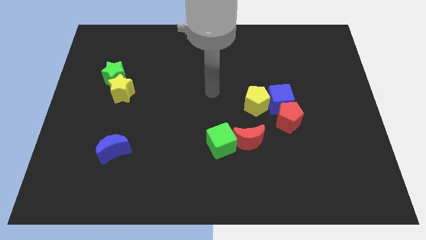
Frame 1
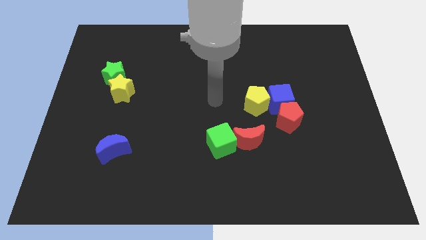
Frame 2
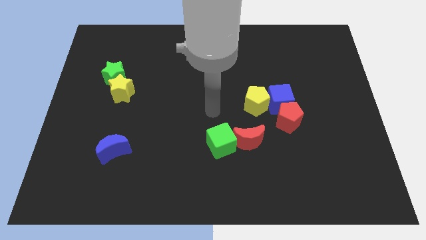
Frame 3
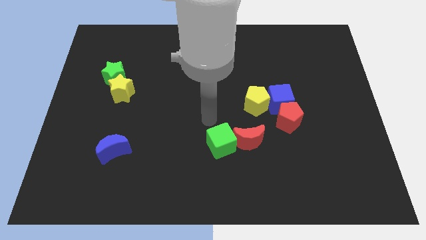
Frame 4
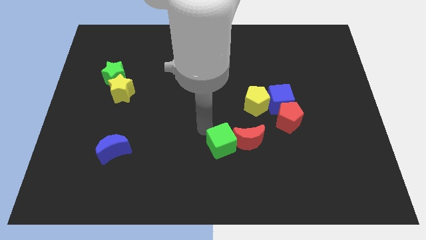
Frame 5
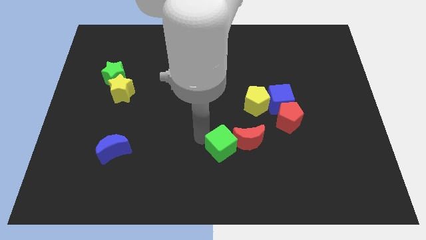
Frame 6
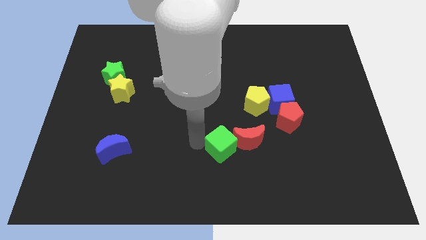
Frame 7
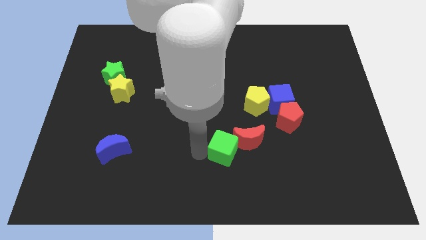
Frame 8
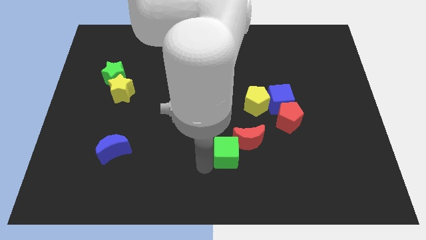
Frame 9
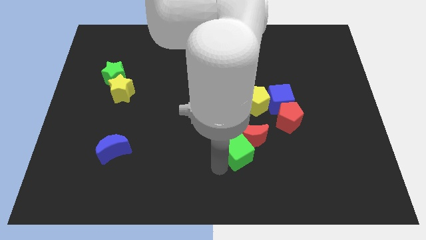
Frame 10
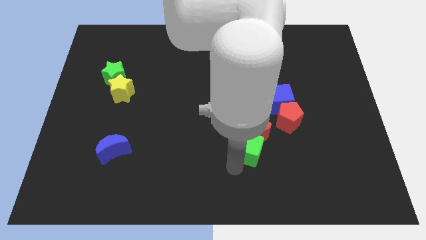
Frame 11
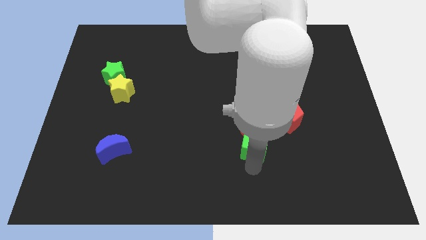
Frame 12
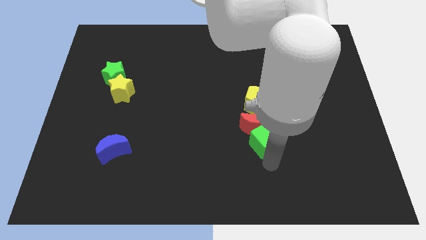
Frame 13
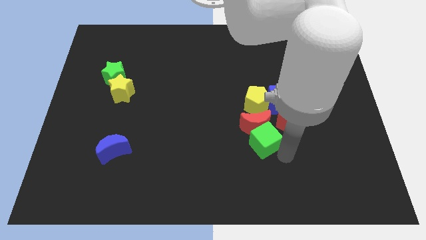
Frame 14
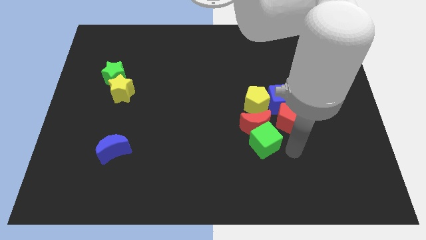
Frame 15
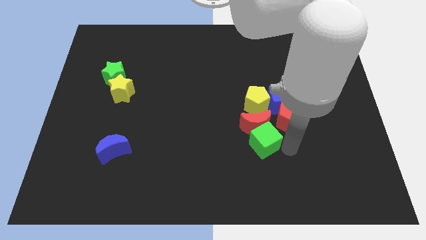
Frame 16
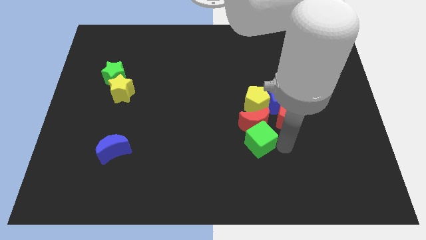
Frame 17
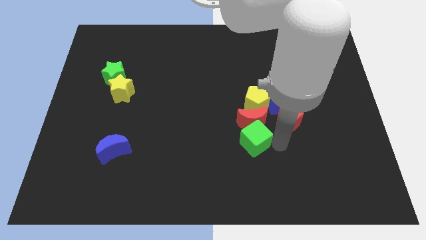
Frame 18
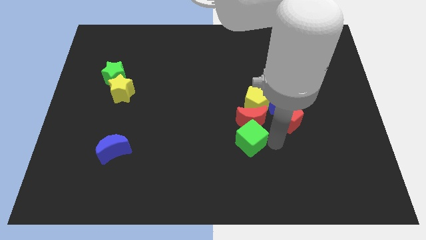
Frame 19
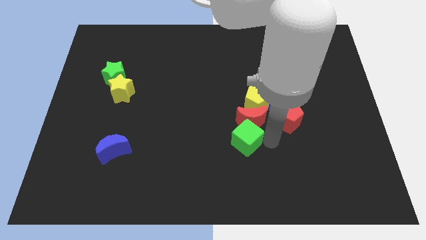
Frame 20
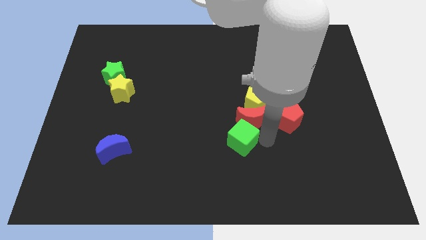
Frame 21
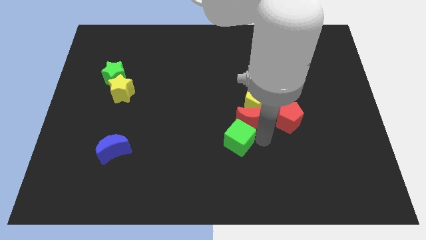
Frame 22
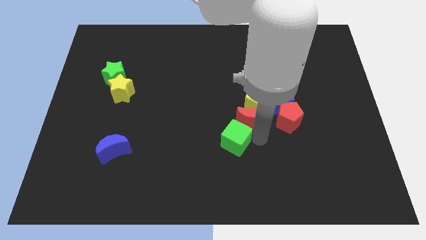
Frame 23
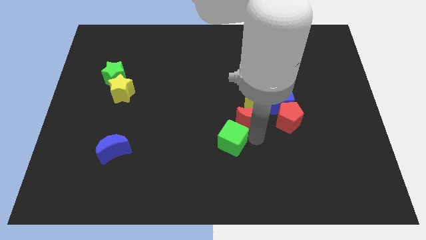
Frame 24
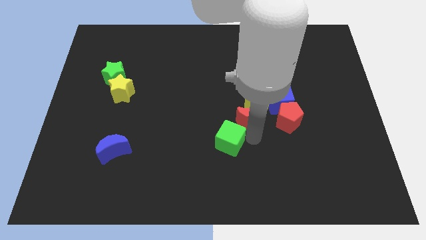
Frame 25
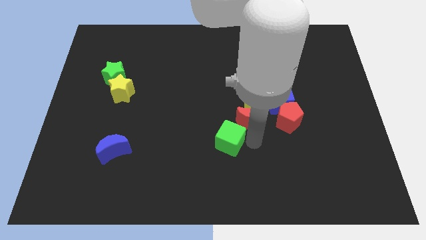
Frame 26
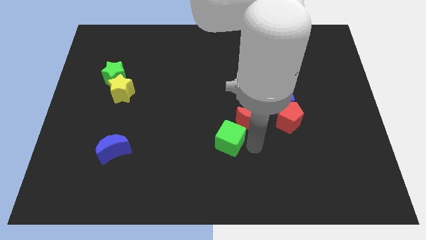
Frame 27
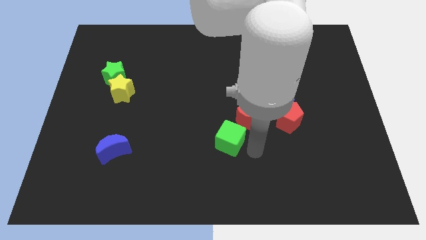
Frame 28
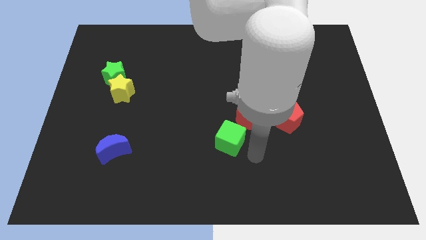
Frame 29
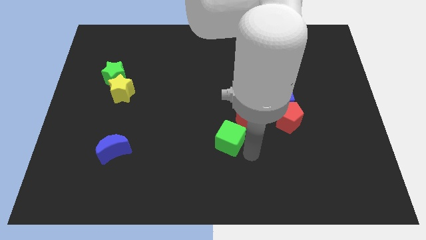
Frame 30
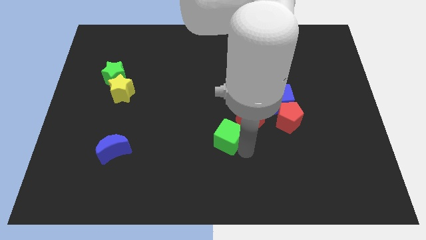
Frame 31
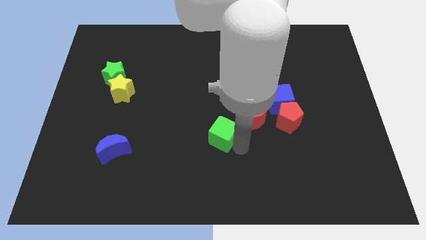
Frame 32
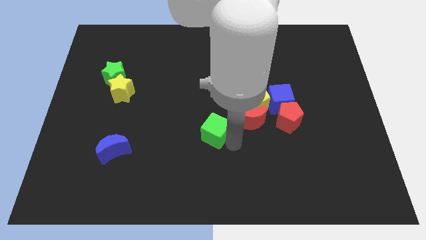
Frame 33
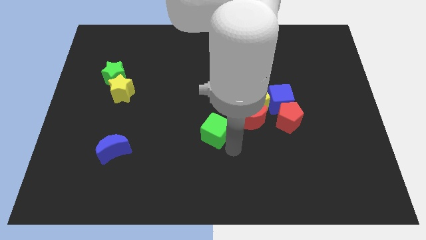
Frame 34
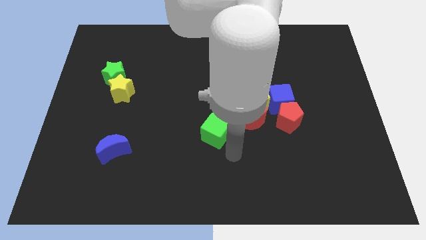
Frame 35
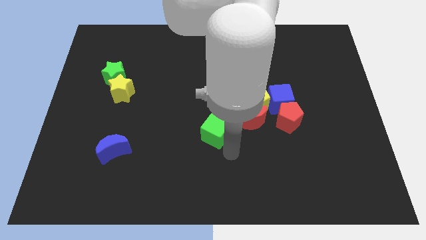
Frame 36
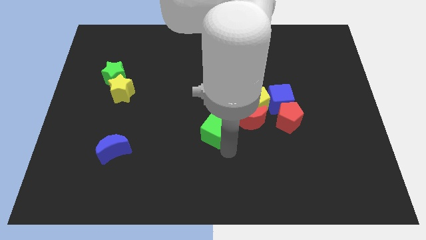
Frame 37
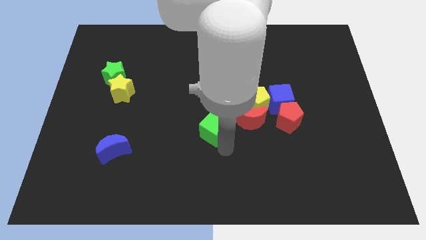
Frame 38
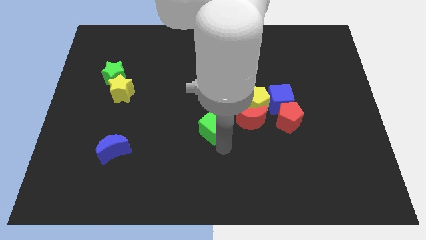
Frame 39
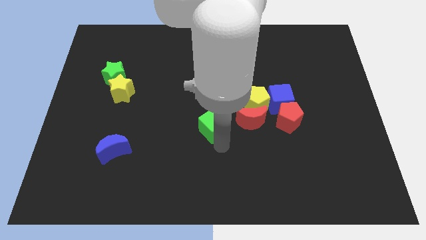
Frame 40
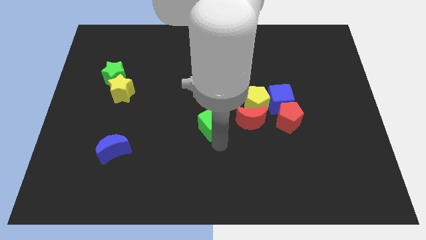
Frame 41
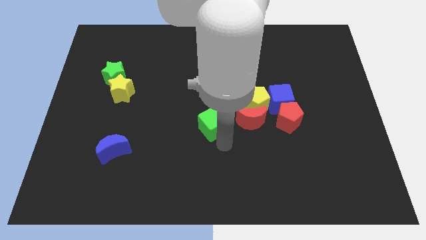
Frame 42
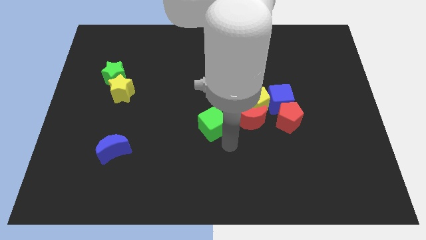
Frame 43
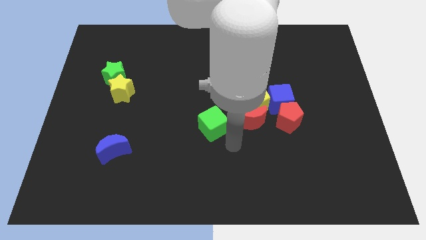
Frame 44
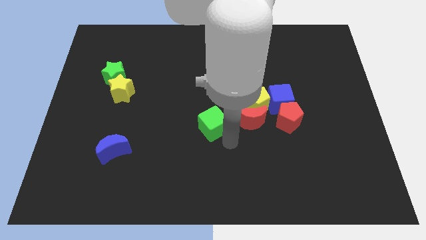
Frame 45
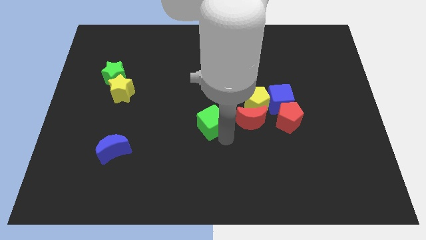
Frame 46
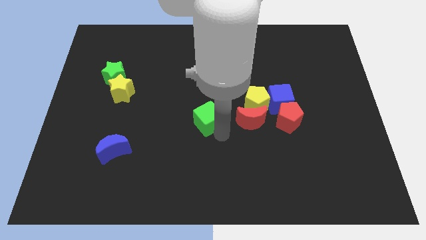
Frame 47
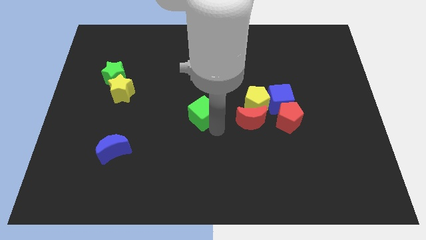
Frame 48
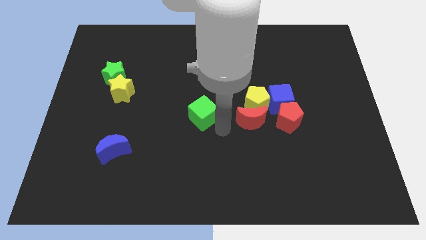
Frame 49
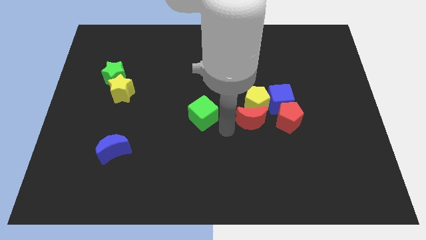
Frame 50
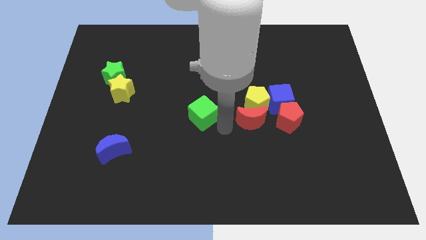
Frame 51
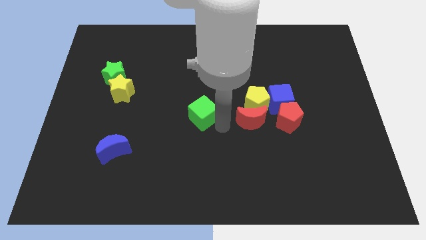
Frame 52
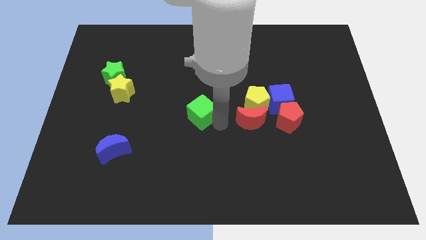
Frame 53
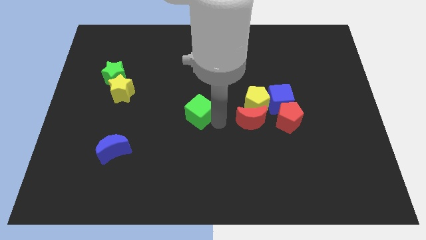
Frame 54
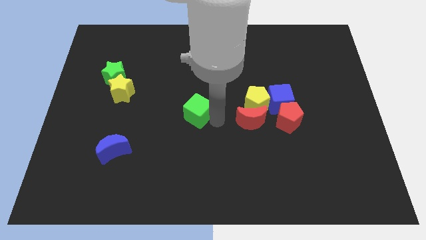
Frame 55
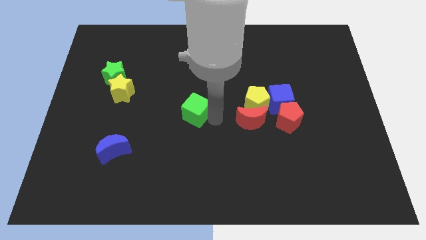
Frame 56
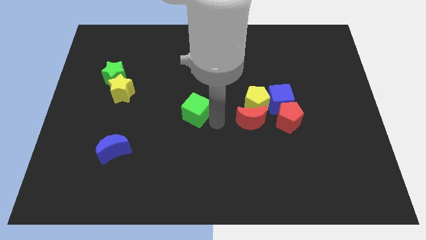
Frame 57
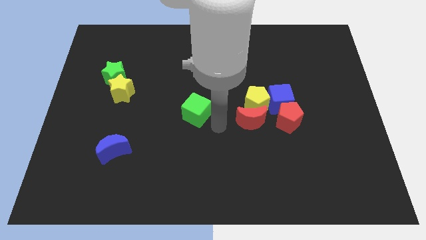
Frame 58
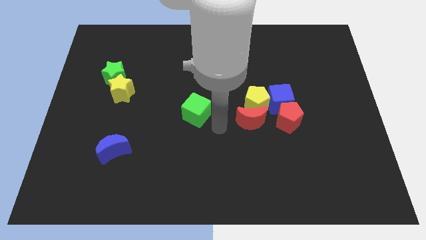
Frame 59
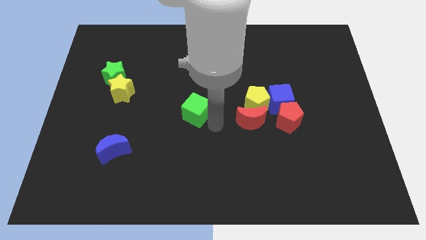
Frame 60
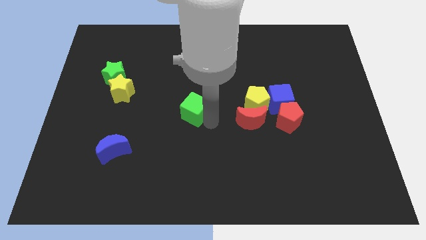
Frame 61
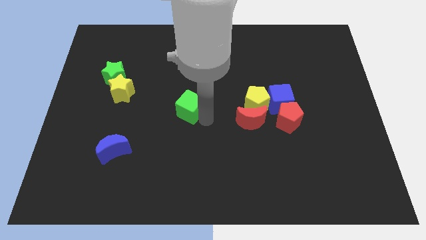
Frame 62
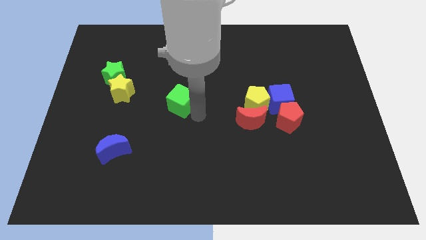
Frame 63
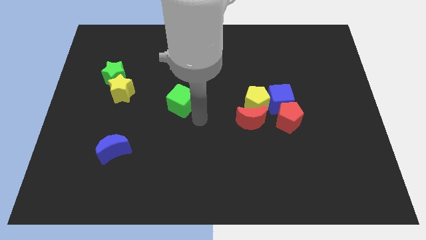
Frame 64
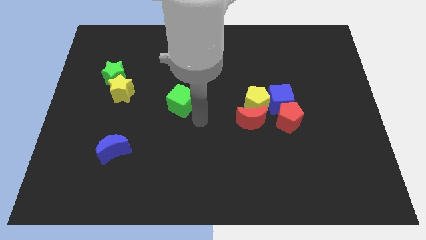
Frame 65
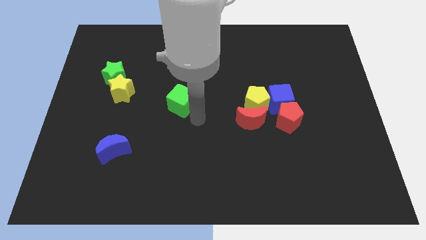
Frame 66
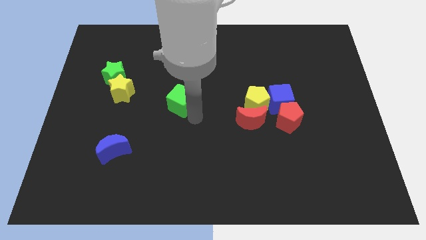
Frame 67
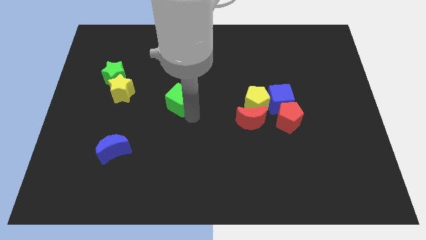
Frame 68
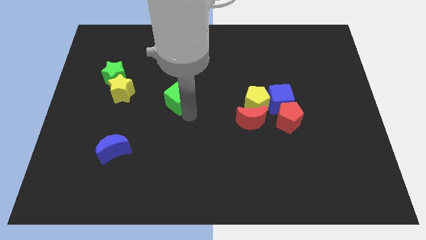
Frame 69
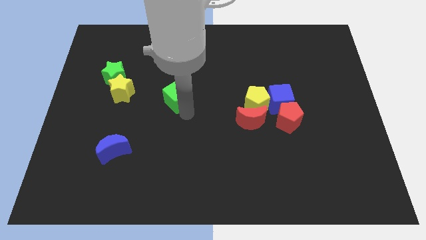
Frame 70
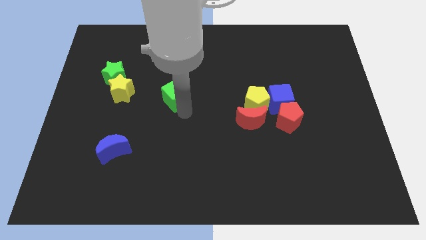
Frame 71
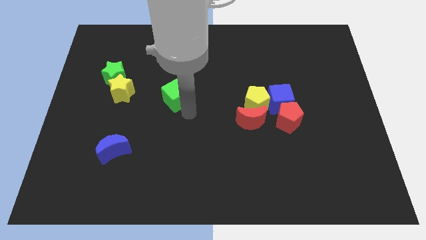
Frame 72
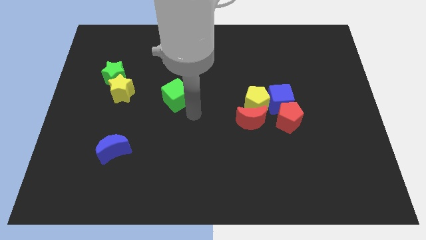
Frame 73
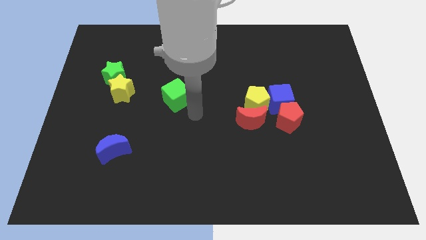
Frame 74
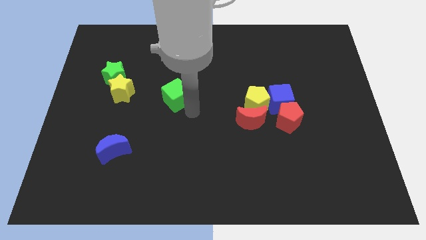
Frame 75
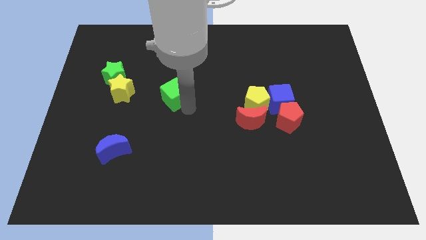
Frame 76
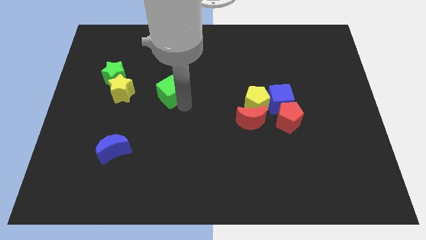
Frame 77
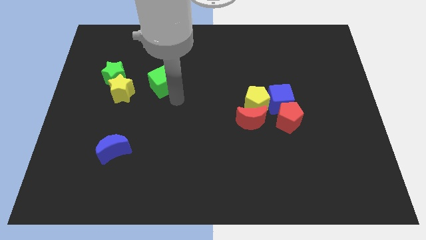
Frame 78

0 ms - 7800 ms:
push the green cube up and left

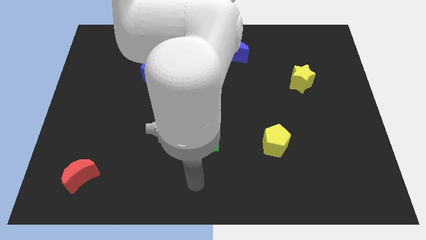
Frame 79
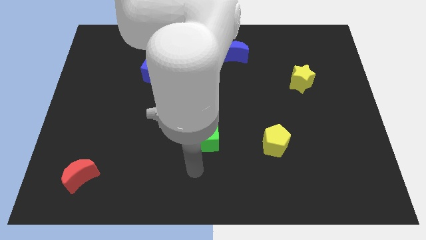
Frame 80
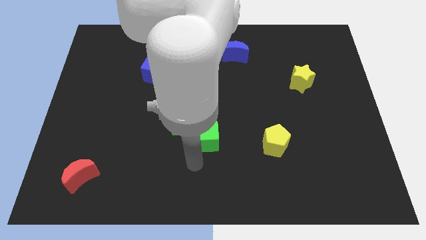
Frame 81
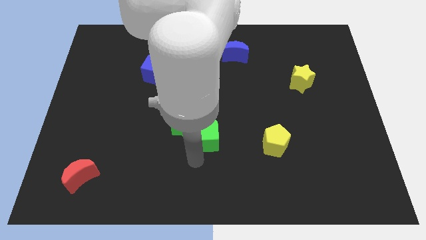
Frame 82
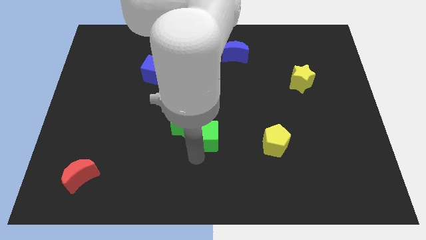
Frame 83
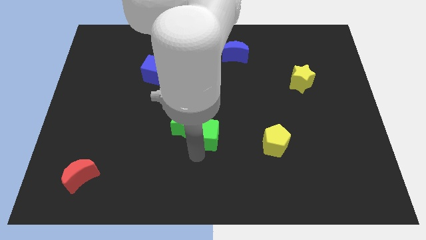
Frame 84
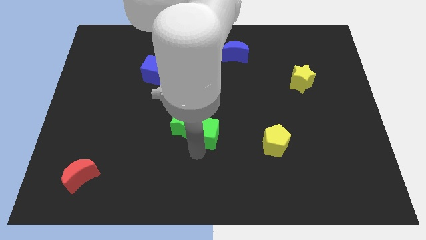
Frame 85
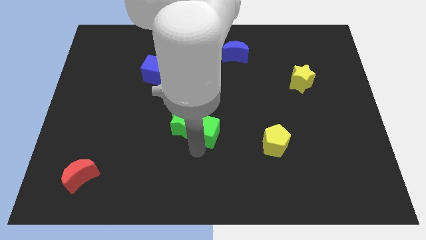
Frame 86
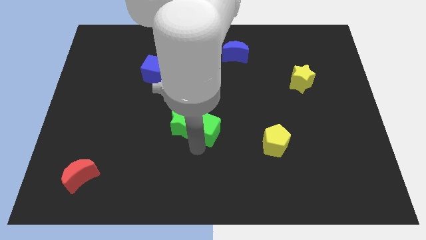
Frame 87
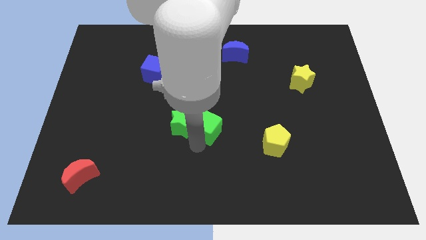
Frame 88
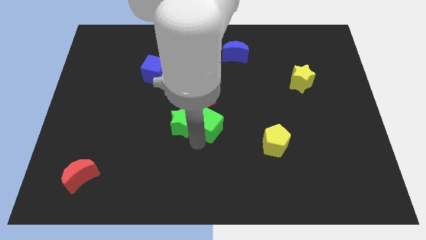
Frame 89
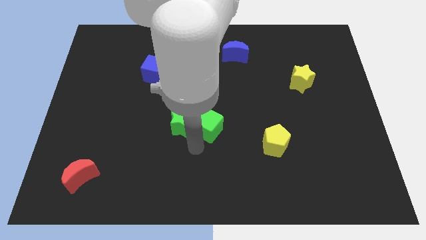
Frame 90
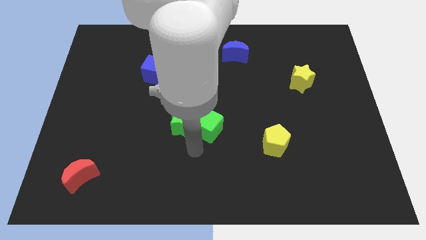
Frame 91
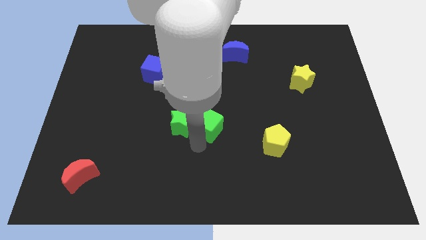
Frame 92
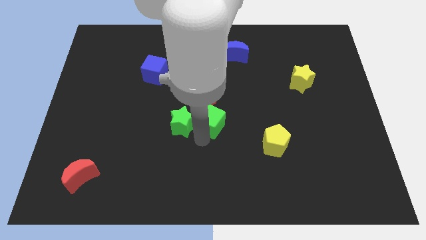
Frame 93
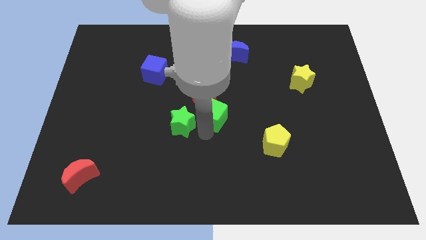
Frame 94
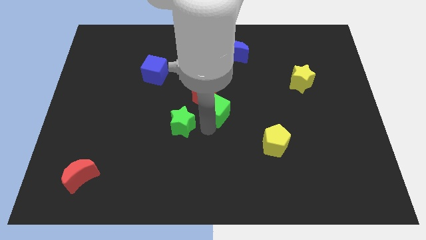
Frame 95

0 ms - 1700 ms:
slide the green cube upwards a bit
